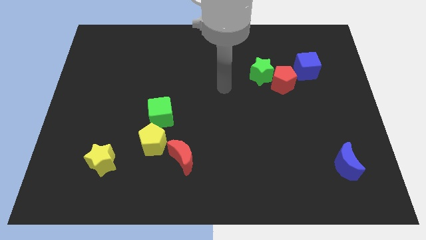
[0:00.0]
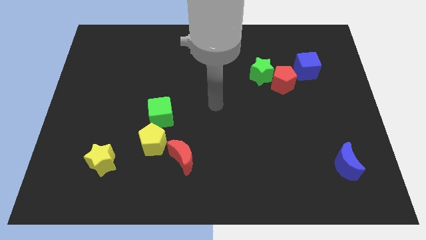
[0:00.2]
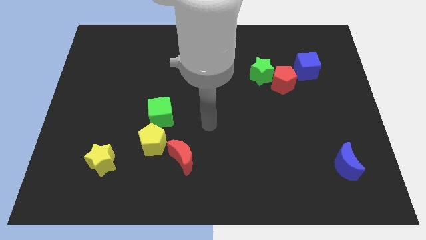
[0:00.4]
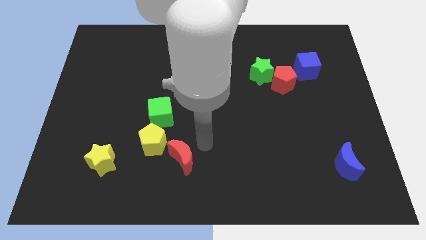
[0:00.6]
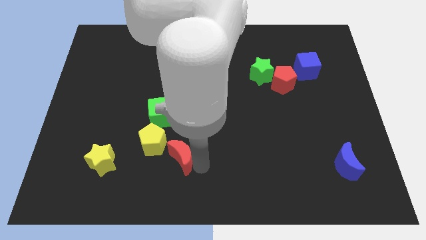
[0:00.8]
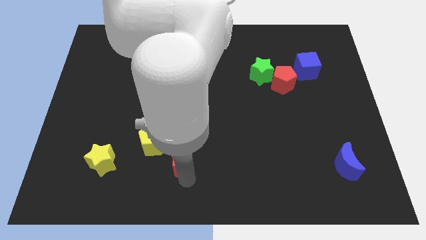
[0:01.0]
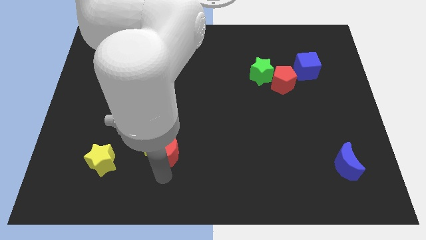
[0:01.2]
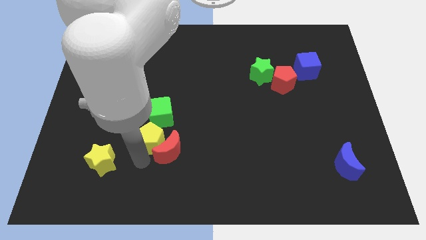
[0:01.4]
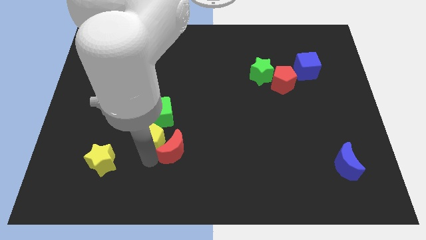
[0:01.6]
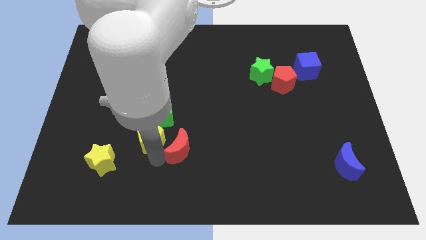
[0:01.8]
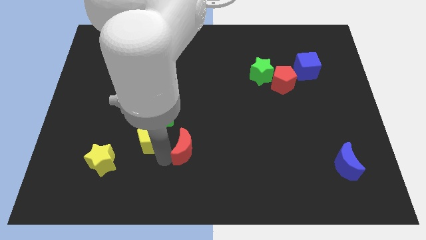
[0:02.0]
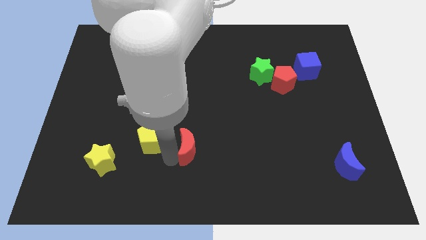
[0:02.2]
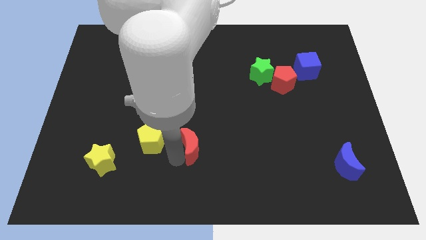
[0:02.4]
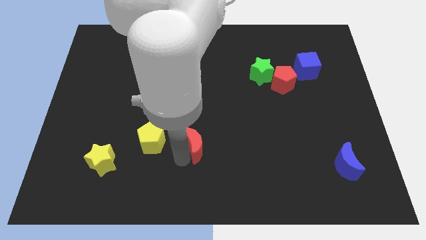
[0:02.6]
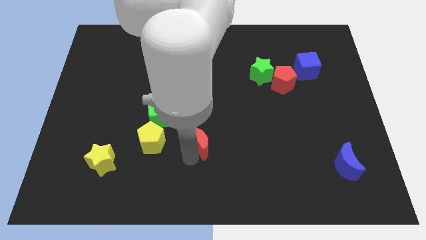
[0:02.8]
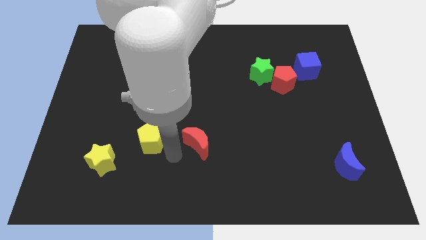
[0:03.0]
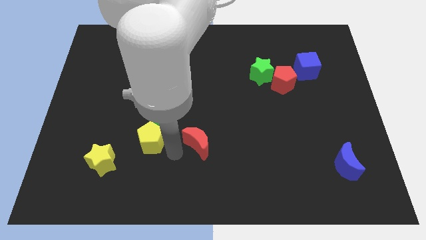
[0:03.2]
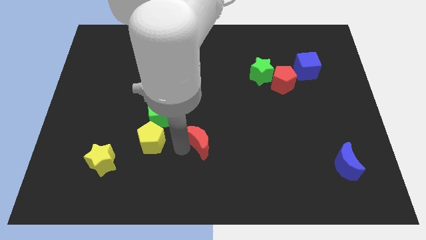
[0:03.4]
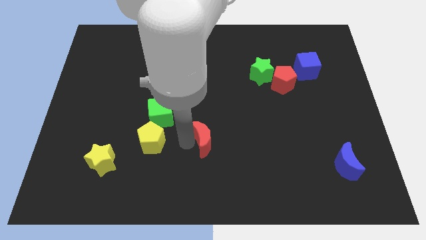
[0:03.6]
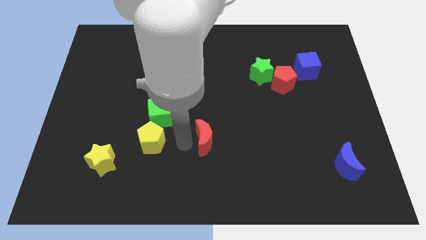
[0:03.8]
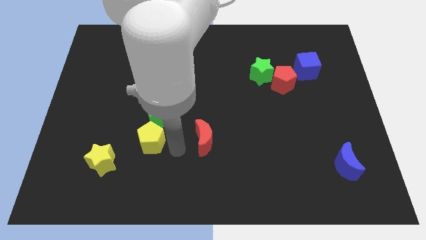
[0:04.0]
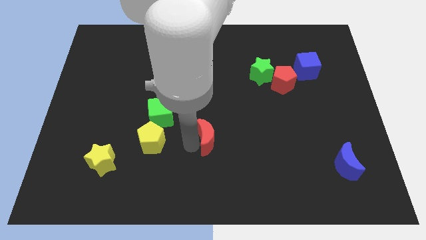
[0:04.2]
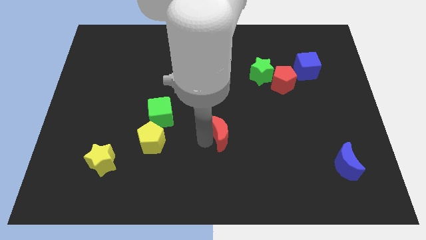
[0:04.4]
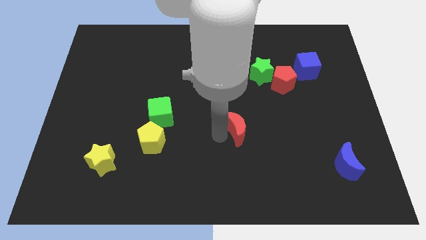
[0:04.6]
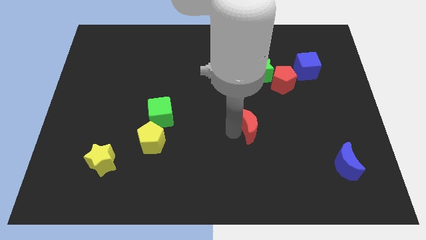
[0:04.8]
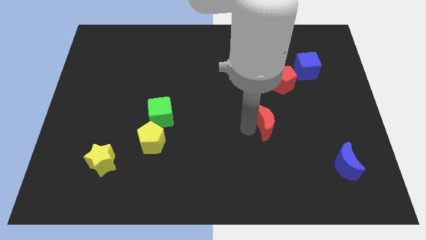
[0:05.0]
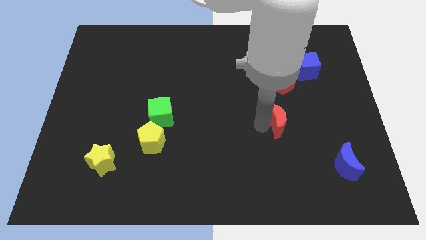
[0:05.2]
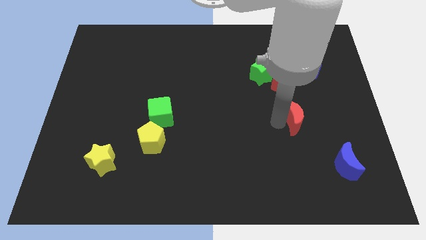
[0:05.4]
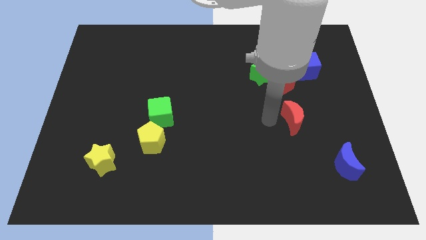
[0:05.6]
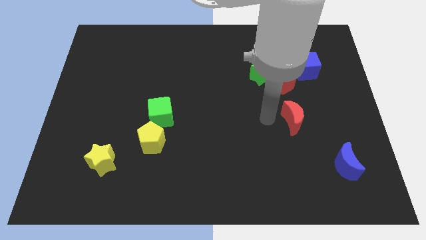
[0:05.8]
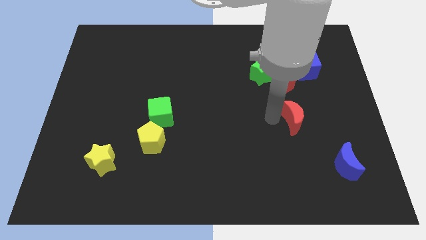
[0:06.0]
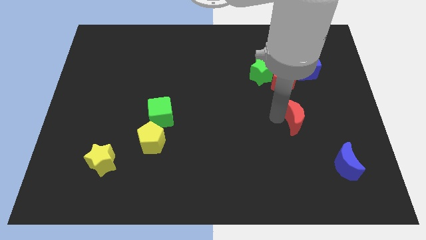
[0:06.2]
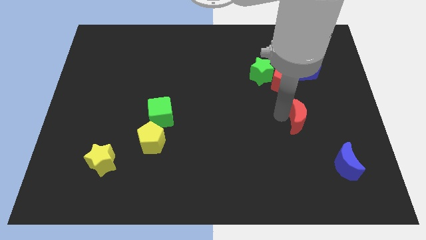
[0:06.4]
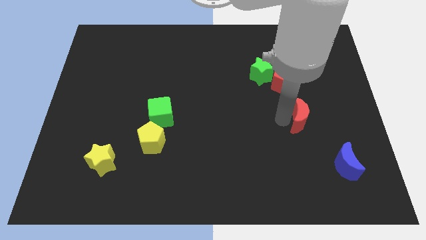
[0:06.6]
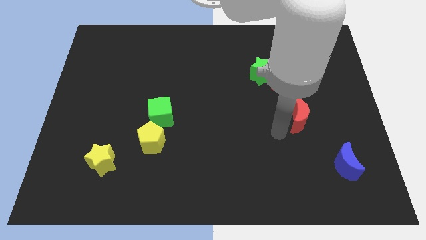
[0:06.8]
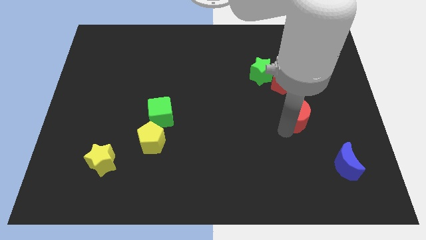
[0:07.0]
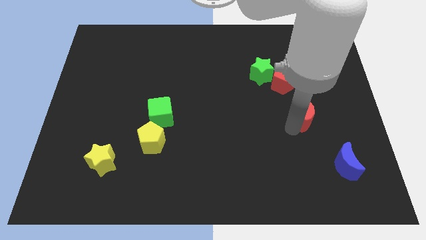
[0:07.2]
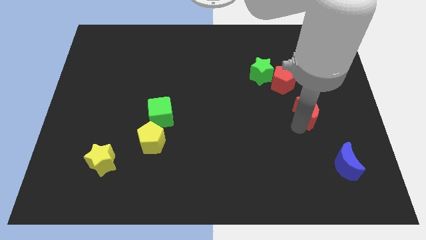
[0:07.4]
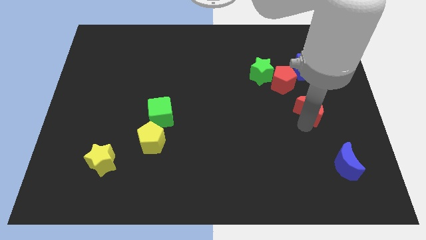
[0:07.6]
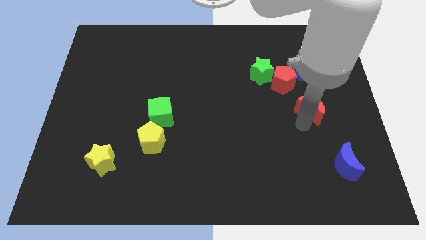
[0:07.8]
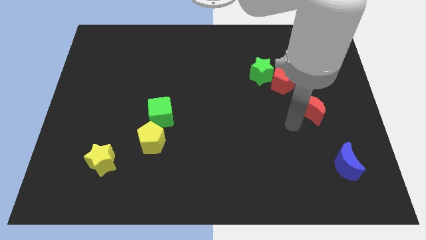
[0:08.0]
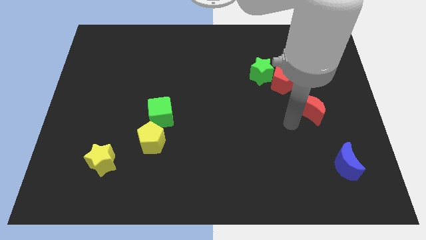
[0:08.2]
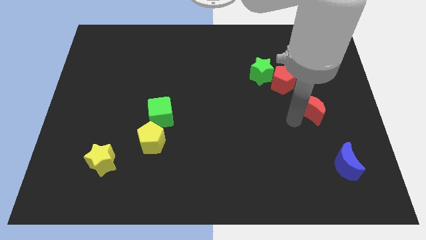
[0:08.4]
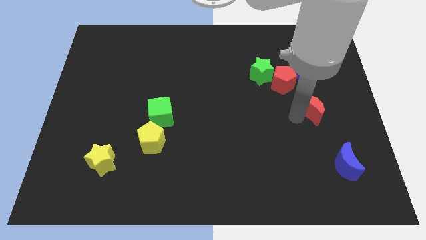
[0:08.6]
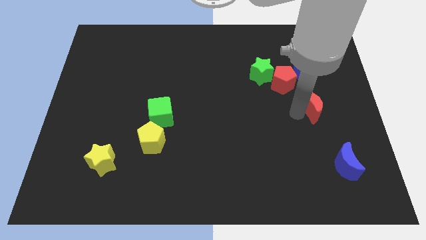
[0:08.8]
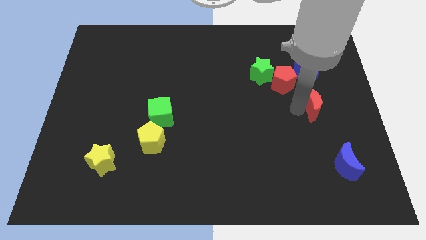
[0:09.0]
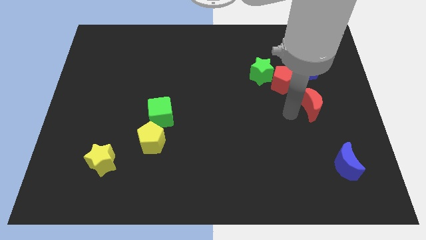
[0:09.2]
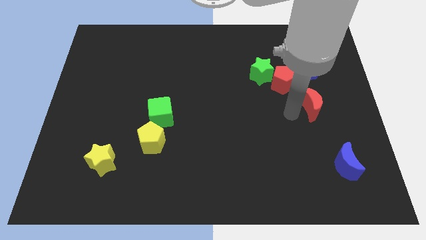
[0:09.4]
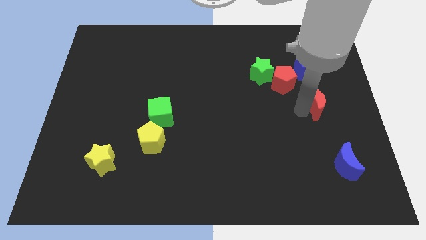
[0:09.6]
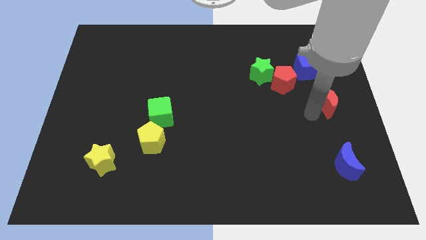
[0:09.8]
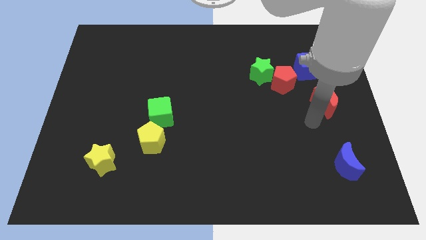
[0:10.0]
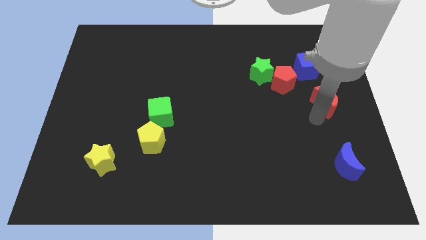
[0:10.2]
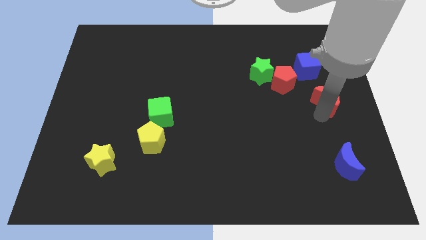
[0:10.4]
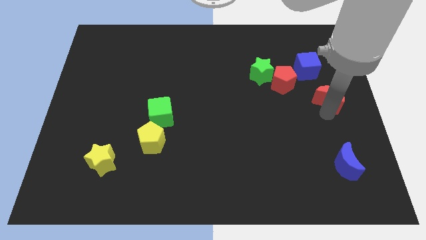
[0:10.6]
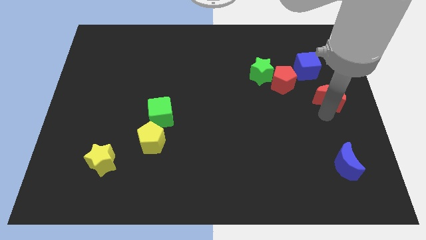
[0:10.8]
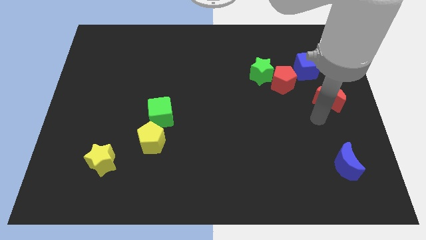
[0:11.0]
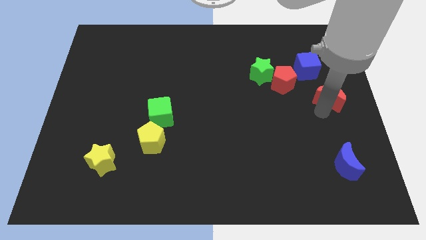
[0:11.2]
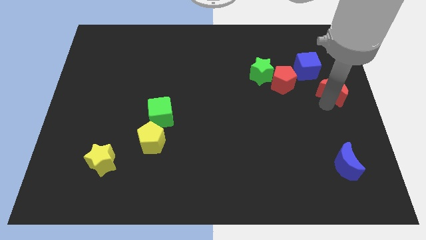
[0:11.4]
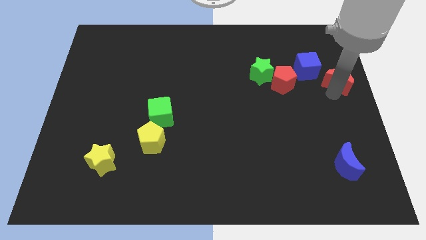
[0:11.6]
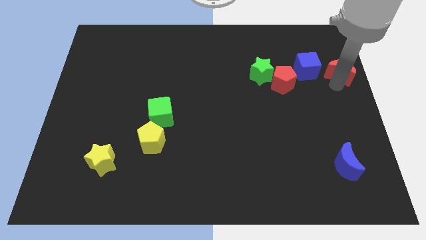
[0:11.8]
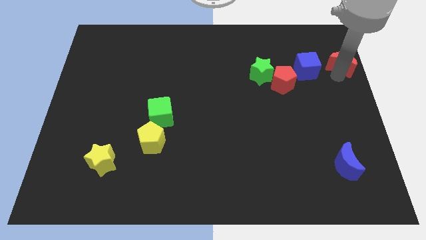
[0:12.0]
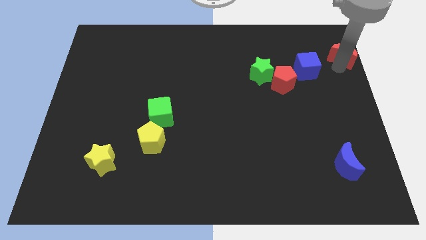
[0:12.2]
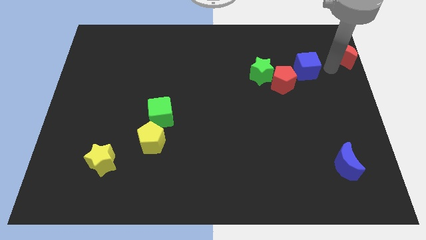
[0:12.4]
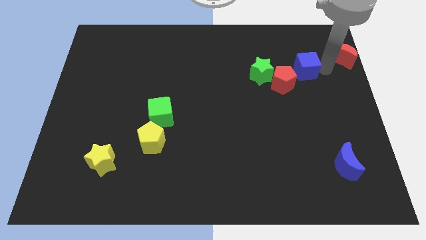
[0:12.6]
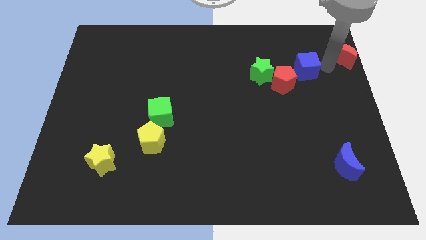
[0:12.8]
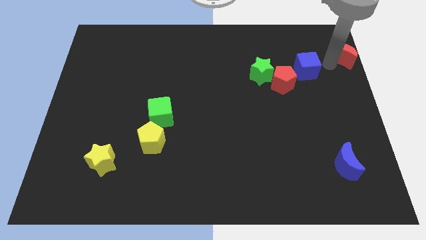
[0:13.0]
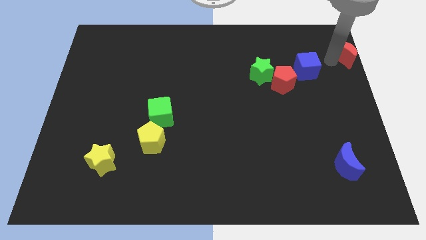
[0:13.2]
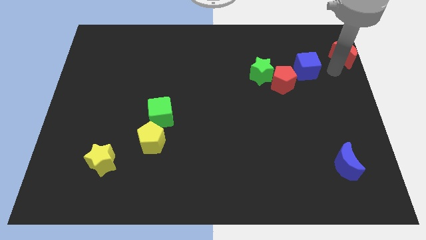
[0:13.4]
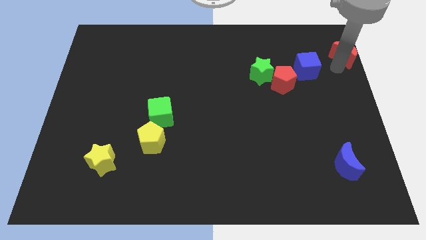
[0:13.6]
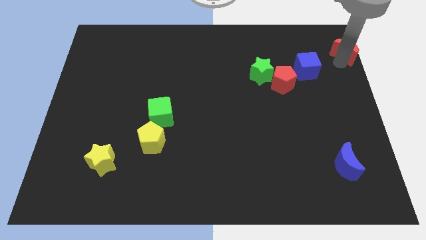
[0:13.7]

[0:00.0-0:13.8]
put the red moon to the top right of the board
